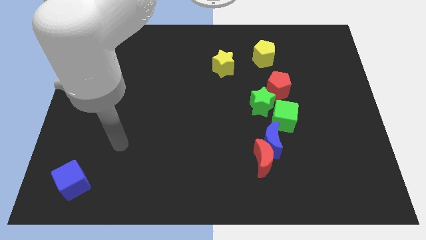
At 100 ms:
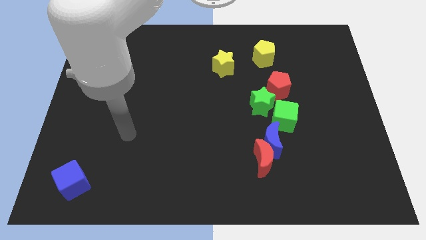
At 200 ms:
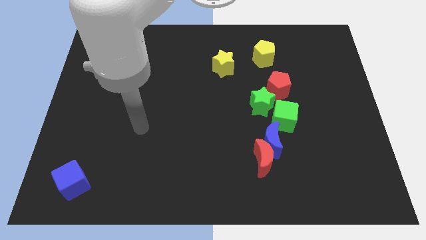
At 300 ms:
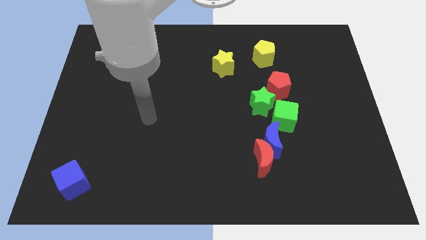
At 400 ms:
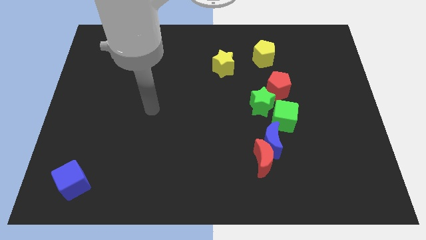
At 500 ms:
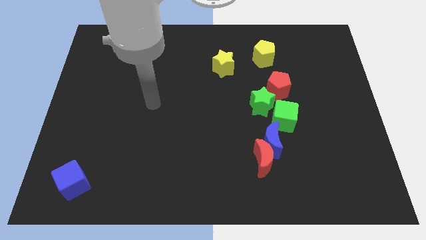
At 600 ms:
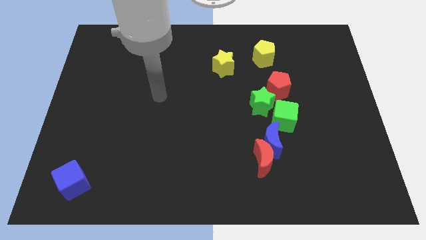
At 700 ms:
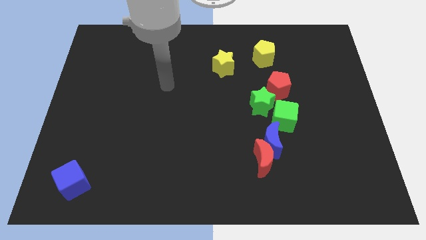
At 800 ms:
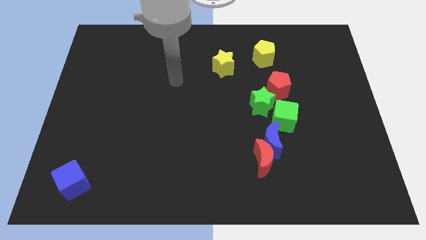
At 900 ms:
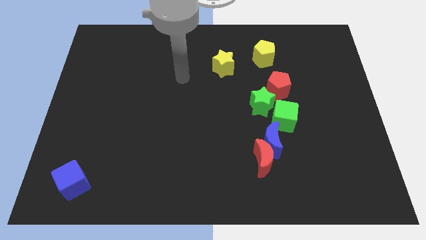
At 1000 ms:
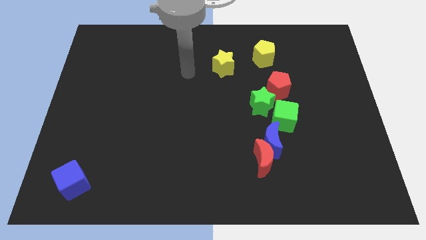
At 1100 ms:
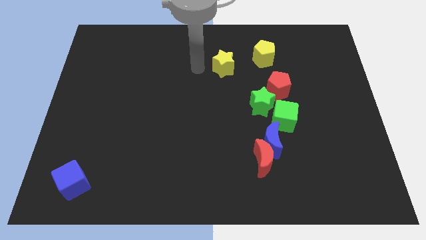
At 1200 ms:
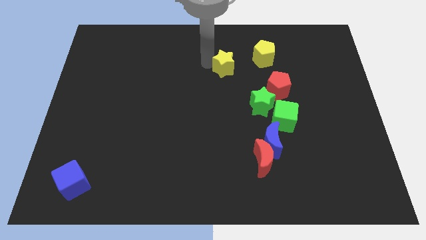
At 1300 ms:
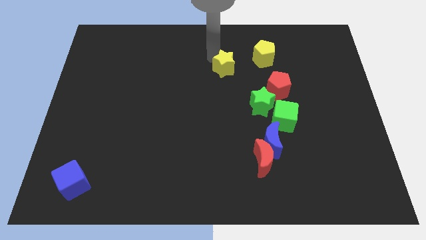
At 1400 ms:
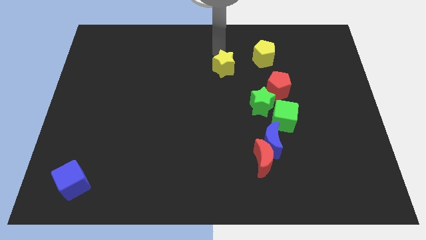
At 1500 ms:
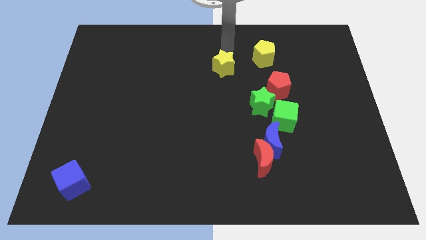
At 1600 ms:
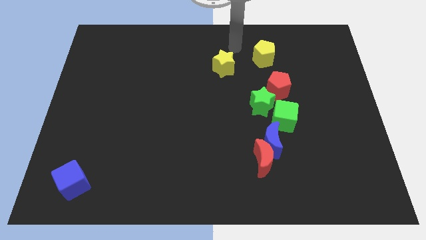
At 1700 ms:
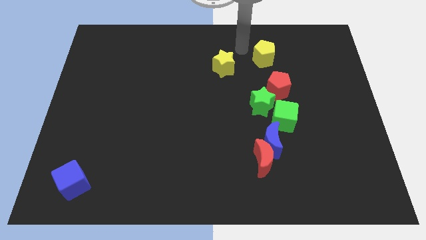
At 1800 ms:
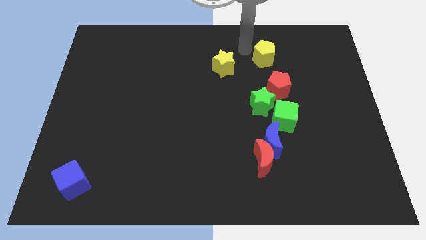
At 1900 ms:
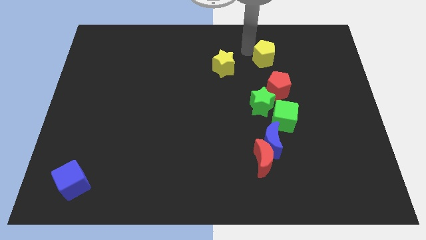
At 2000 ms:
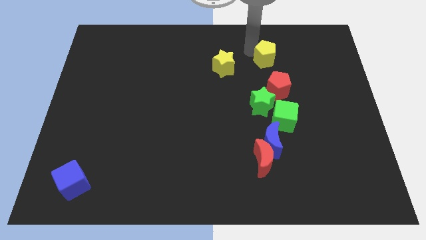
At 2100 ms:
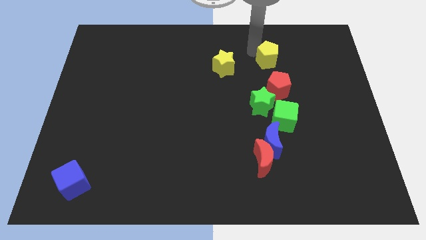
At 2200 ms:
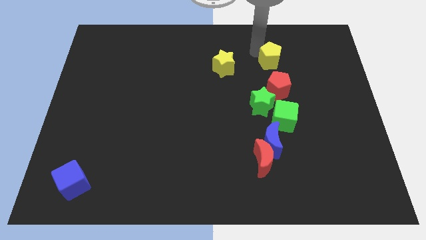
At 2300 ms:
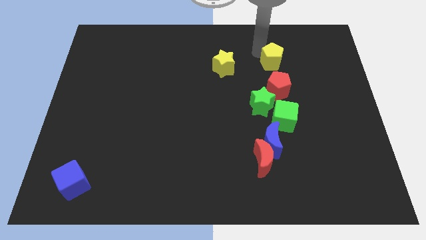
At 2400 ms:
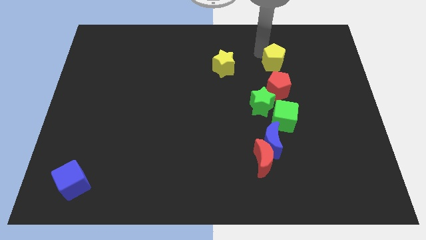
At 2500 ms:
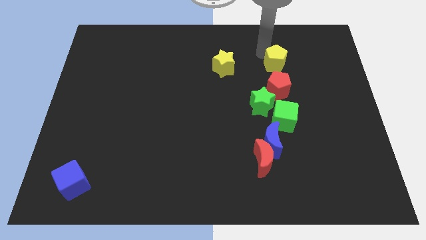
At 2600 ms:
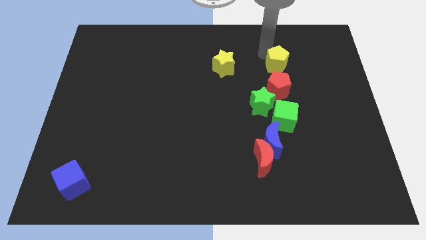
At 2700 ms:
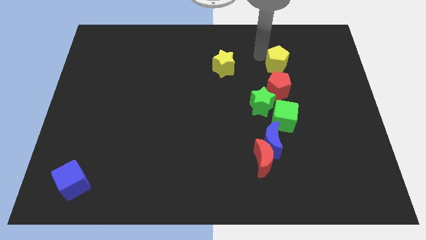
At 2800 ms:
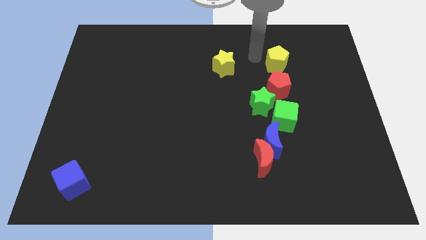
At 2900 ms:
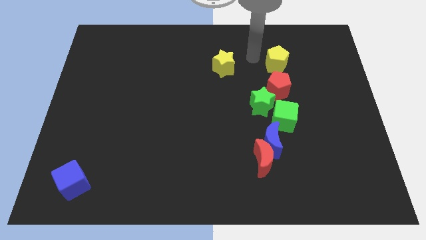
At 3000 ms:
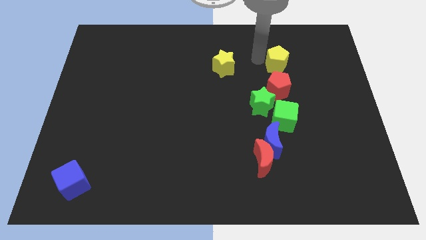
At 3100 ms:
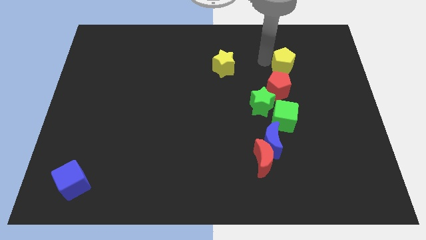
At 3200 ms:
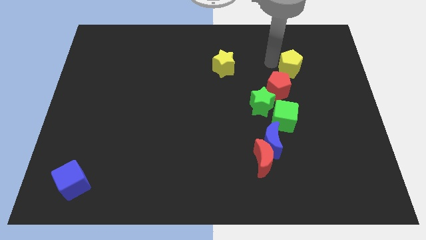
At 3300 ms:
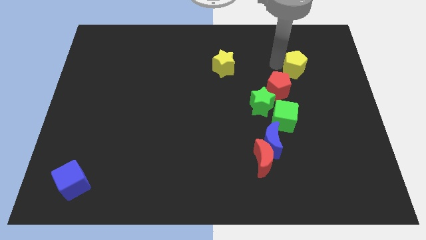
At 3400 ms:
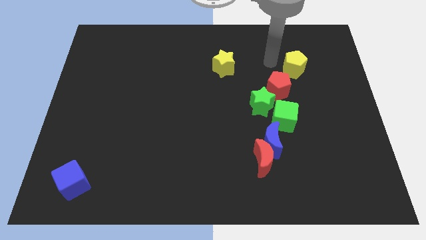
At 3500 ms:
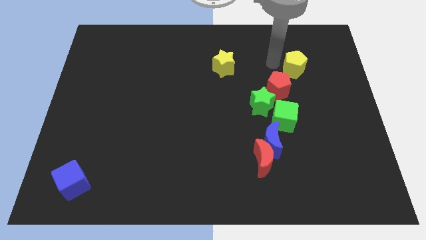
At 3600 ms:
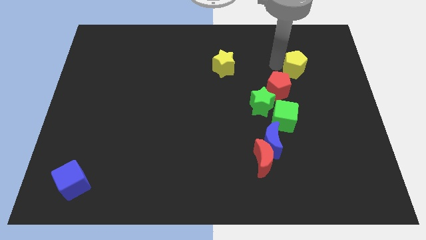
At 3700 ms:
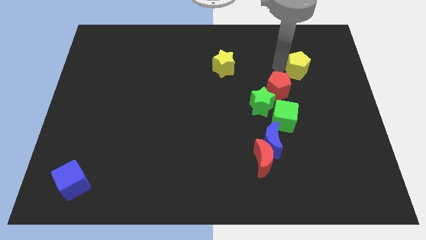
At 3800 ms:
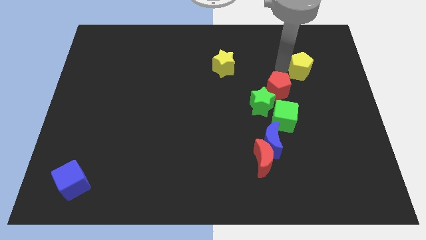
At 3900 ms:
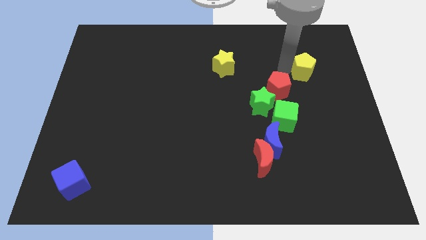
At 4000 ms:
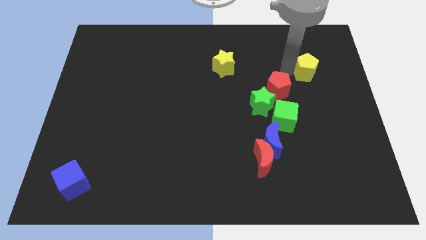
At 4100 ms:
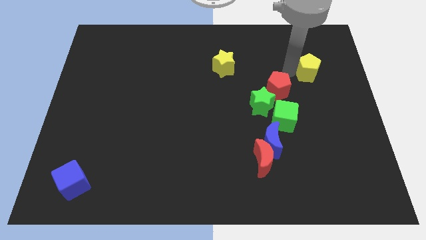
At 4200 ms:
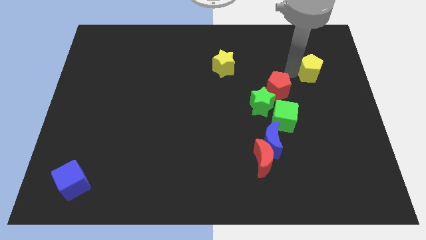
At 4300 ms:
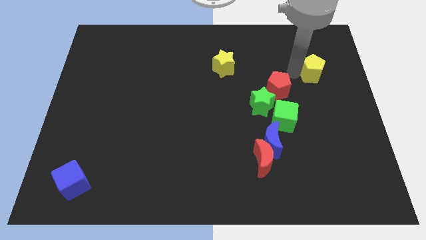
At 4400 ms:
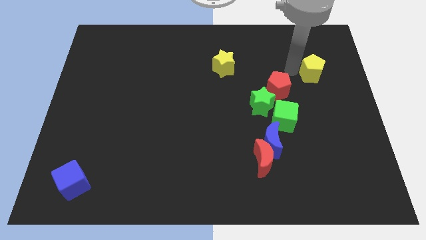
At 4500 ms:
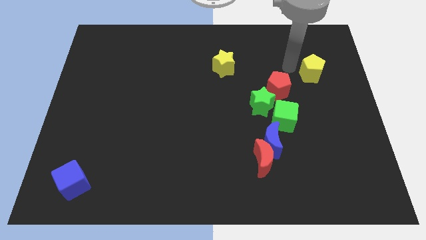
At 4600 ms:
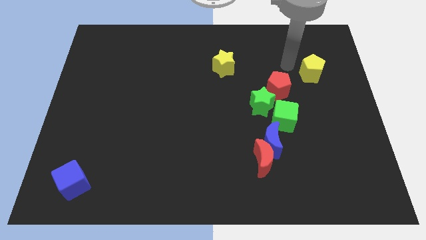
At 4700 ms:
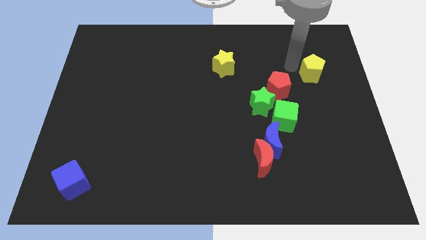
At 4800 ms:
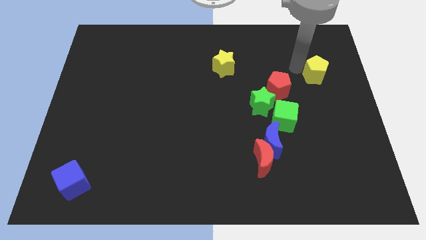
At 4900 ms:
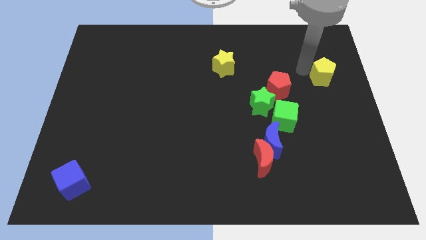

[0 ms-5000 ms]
push the yellow pentagon to the right side

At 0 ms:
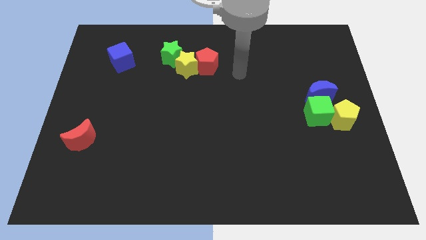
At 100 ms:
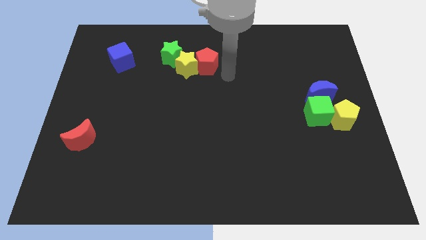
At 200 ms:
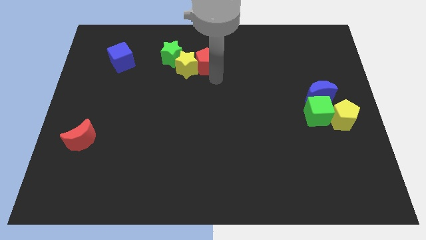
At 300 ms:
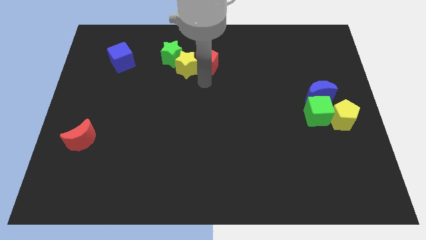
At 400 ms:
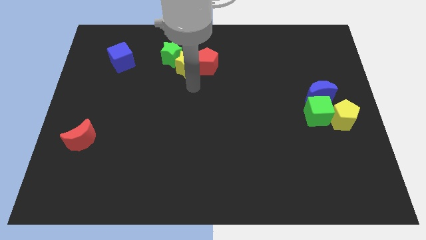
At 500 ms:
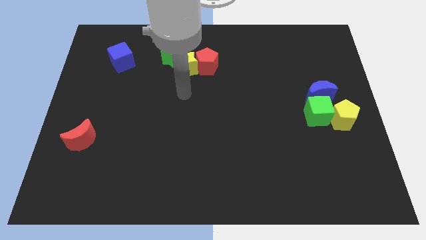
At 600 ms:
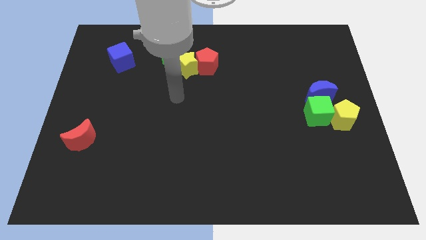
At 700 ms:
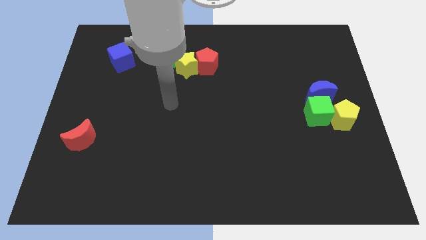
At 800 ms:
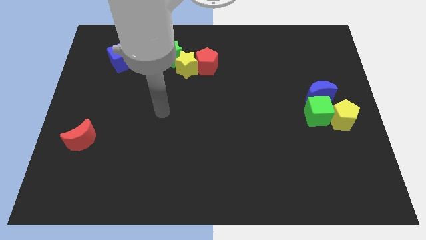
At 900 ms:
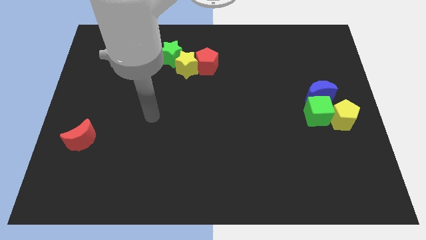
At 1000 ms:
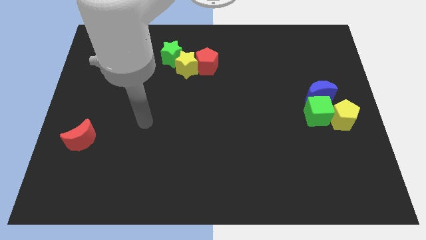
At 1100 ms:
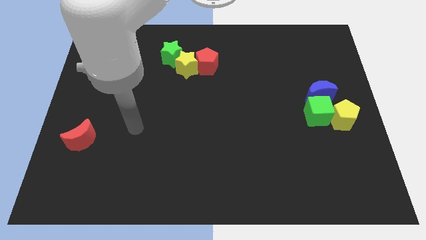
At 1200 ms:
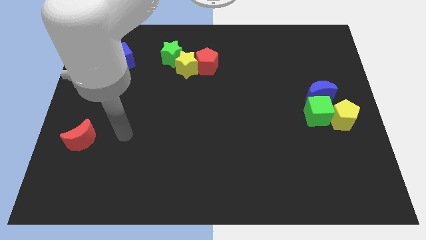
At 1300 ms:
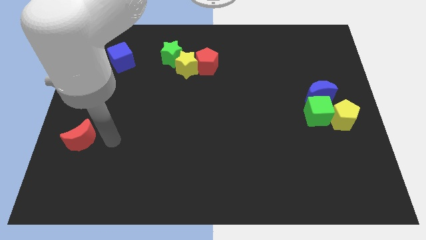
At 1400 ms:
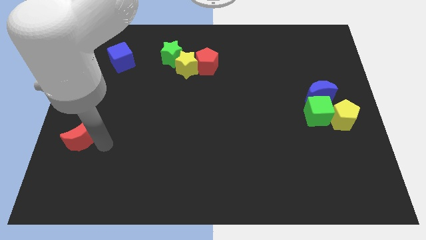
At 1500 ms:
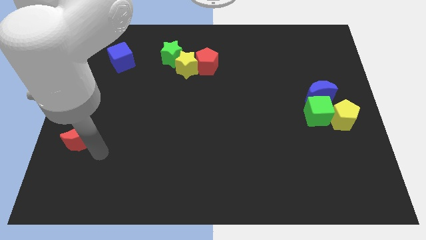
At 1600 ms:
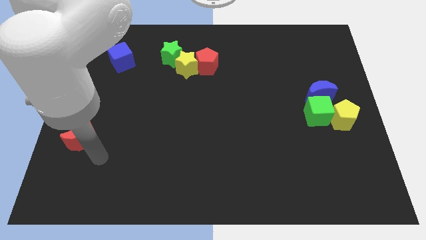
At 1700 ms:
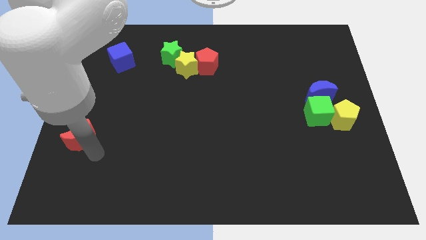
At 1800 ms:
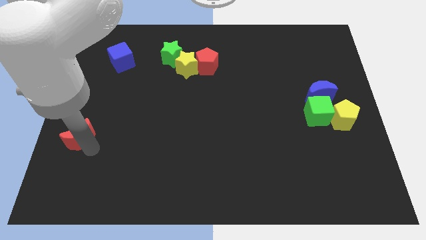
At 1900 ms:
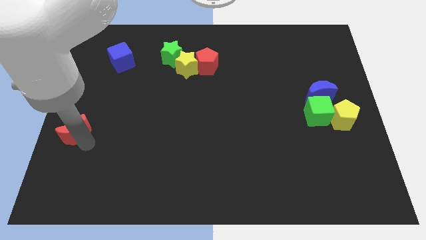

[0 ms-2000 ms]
slide the red moon to the left side of the board
